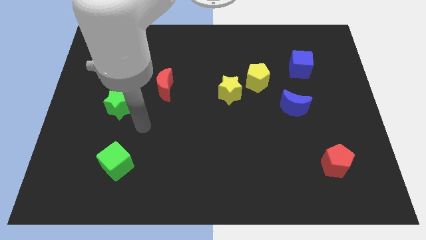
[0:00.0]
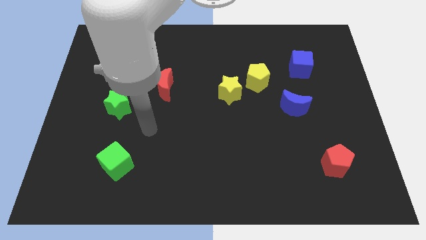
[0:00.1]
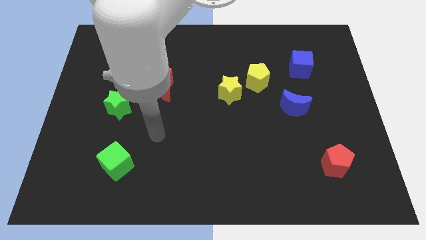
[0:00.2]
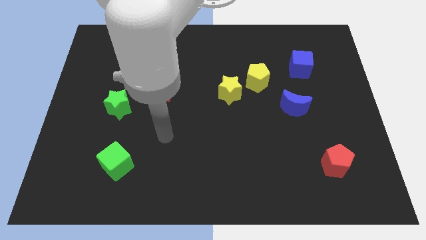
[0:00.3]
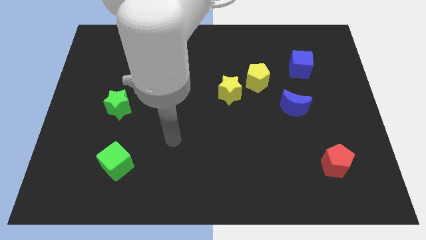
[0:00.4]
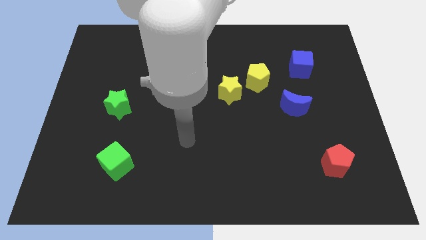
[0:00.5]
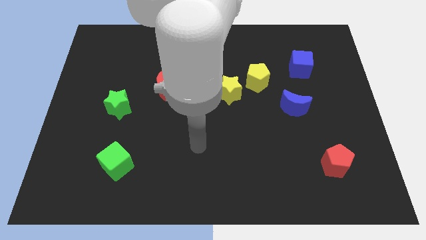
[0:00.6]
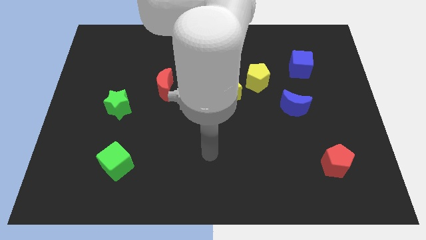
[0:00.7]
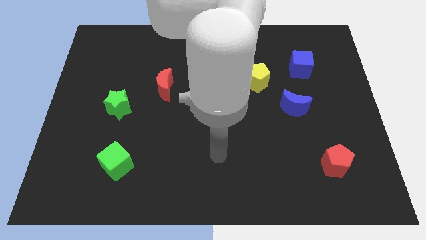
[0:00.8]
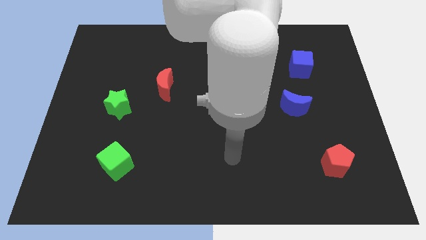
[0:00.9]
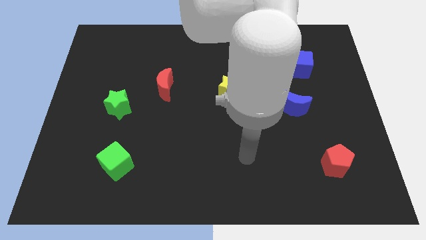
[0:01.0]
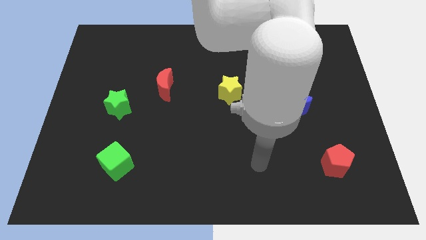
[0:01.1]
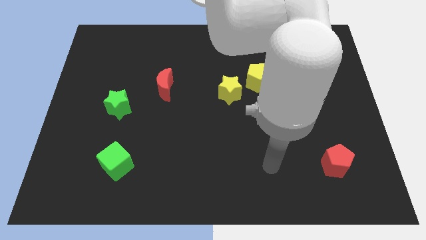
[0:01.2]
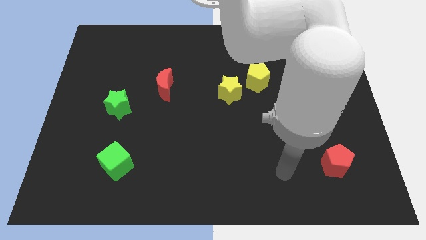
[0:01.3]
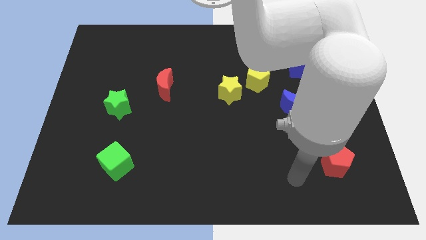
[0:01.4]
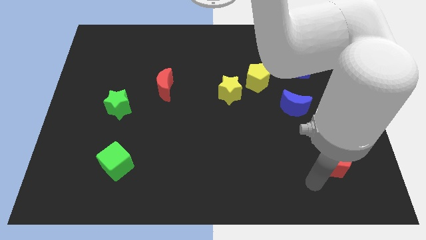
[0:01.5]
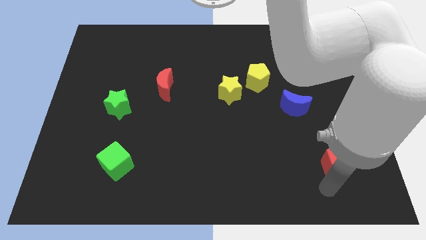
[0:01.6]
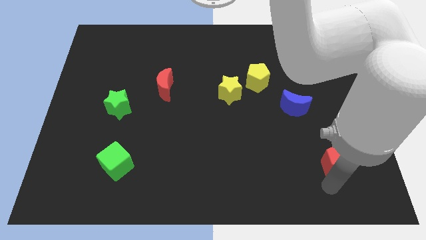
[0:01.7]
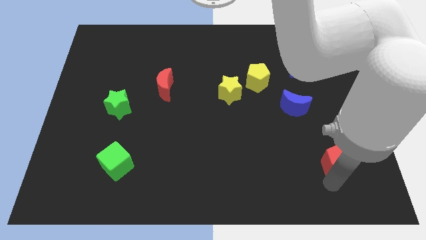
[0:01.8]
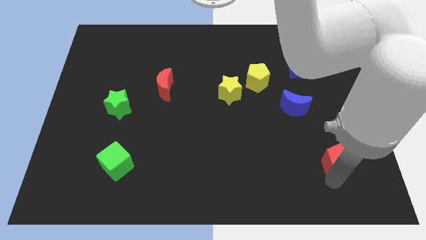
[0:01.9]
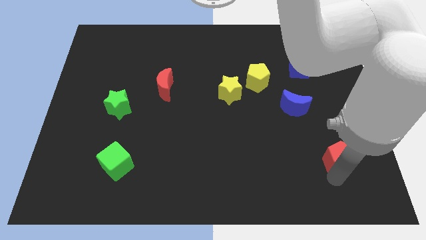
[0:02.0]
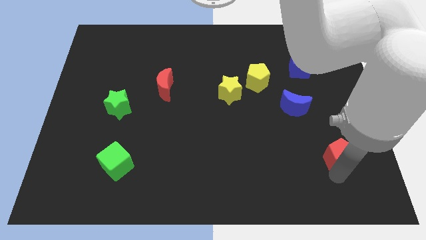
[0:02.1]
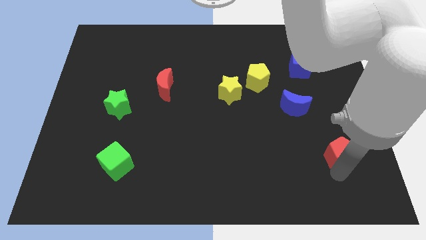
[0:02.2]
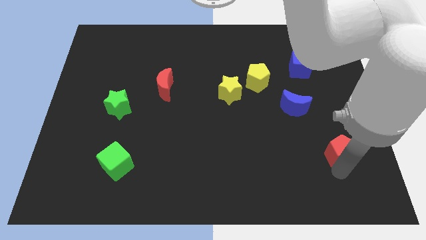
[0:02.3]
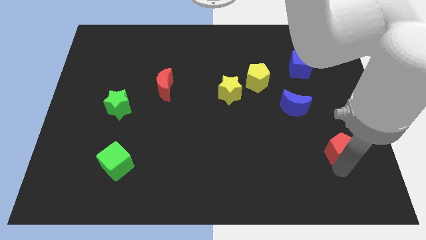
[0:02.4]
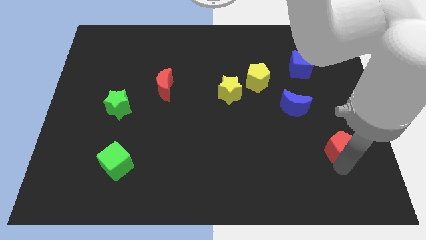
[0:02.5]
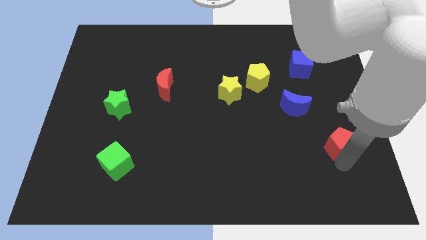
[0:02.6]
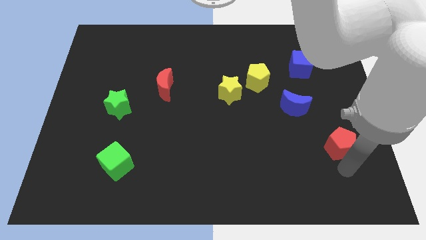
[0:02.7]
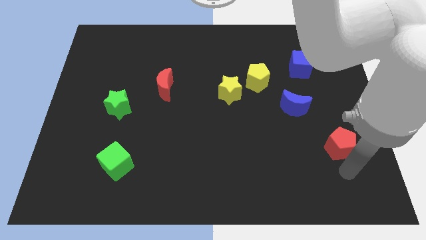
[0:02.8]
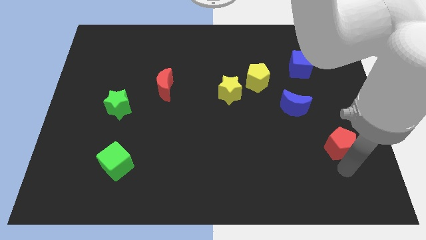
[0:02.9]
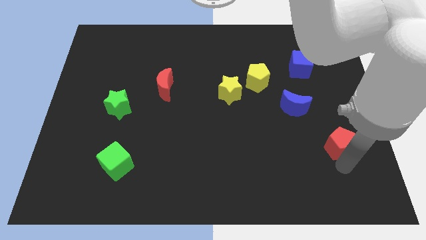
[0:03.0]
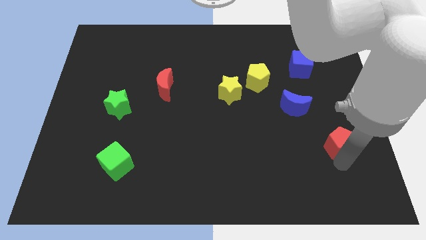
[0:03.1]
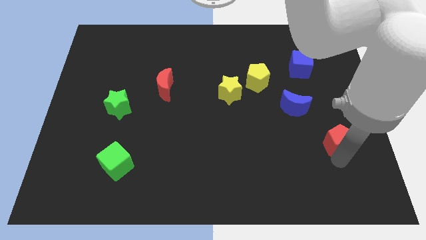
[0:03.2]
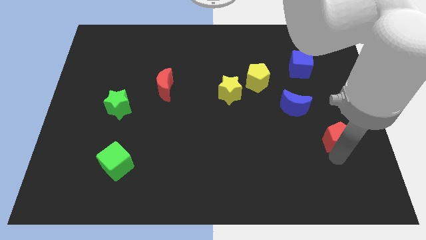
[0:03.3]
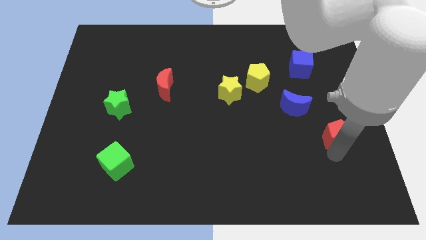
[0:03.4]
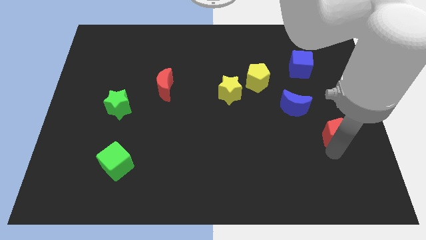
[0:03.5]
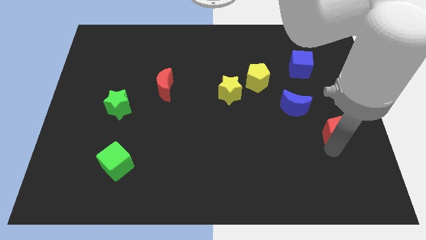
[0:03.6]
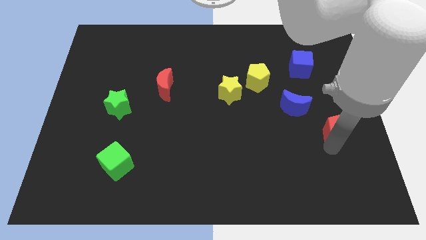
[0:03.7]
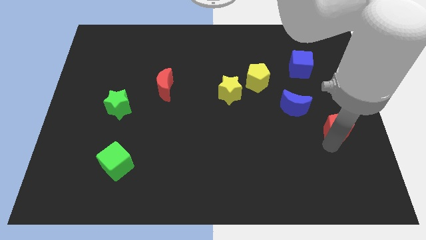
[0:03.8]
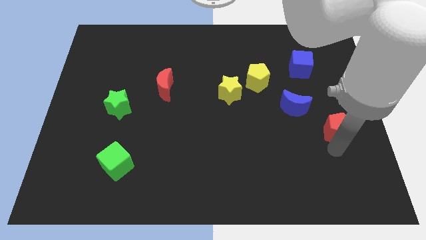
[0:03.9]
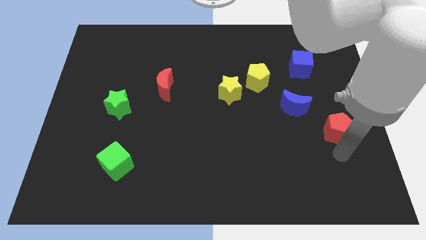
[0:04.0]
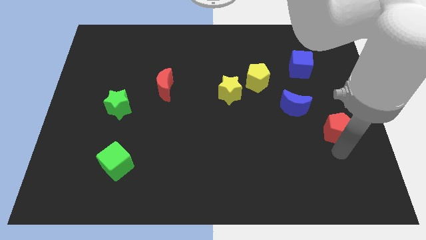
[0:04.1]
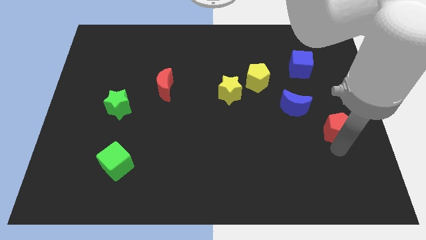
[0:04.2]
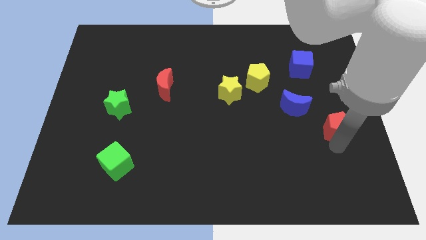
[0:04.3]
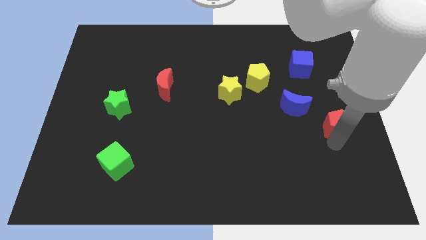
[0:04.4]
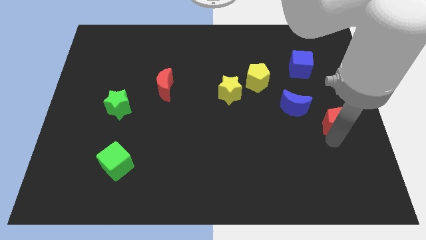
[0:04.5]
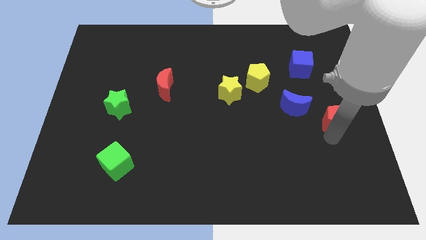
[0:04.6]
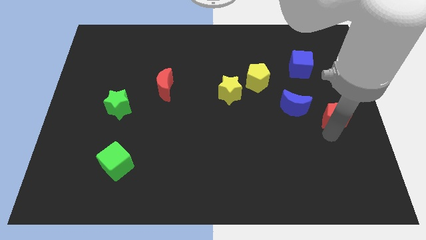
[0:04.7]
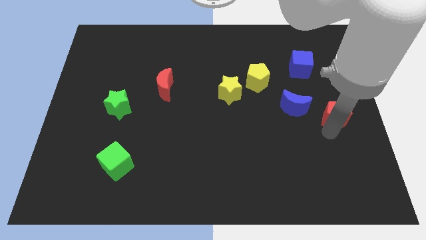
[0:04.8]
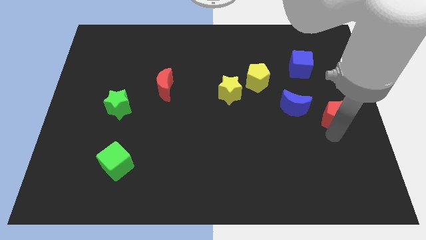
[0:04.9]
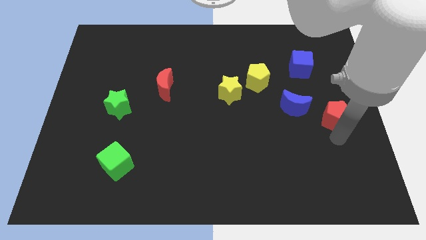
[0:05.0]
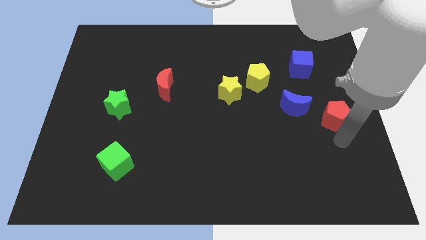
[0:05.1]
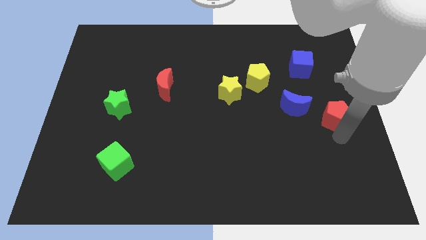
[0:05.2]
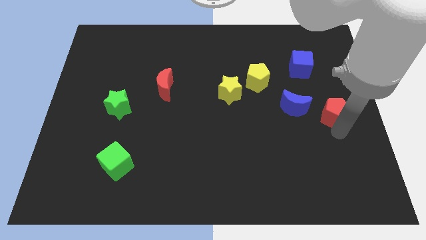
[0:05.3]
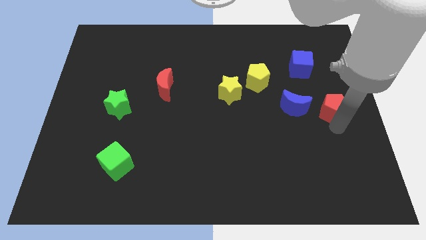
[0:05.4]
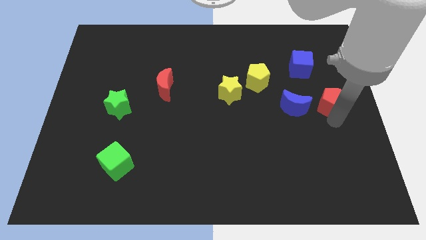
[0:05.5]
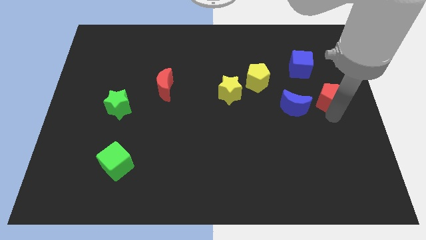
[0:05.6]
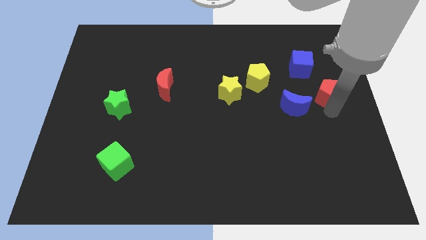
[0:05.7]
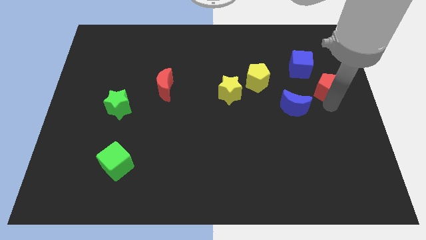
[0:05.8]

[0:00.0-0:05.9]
push the red pentagon up

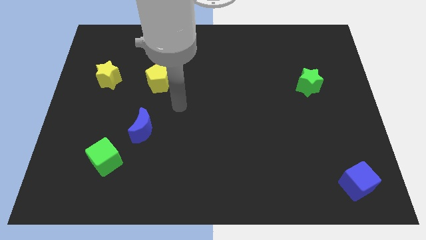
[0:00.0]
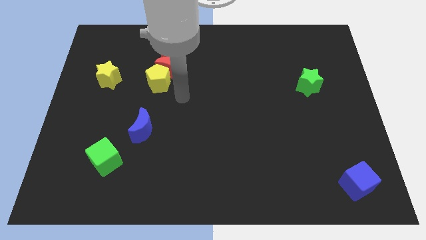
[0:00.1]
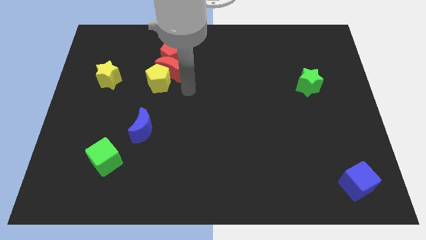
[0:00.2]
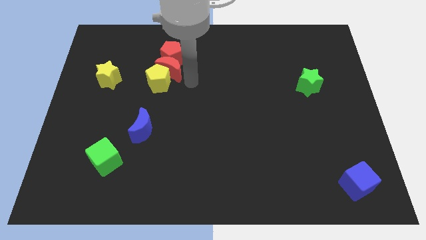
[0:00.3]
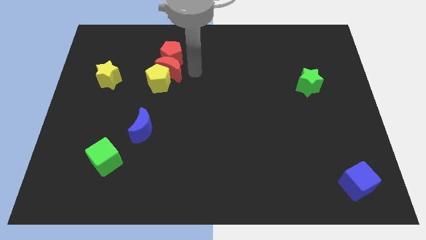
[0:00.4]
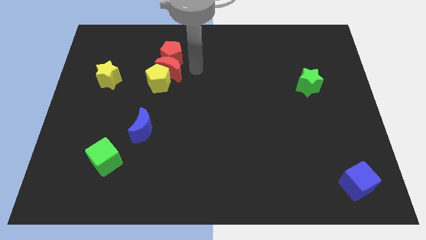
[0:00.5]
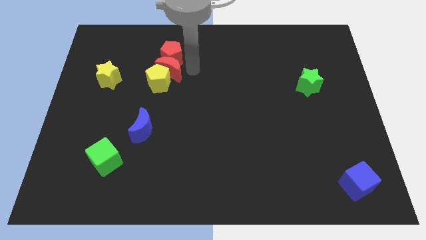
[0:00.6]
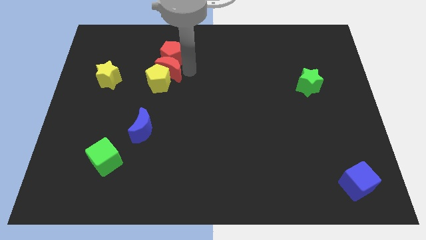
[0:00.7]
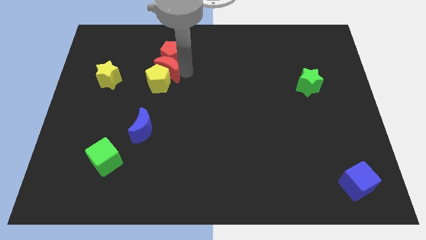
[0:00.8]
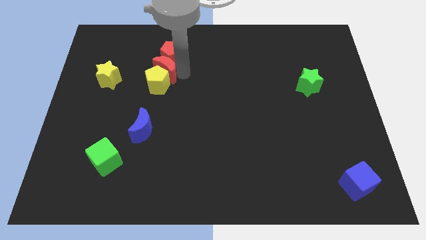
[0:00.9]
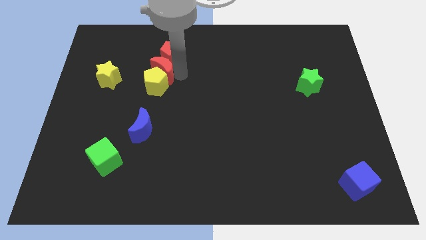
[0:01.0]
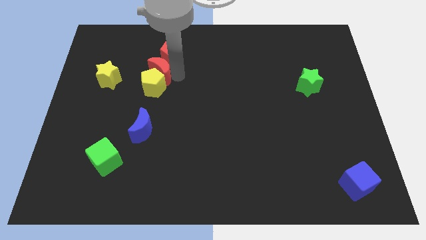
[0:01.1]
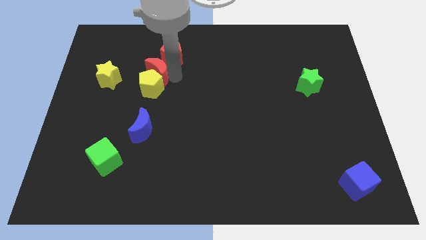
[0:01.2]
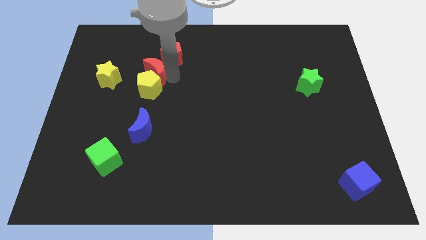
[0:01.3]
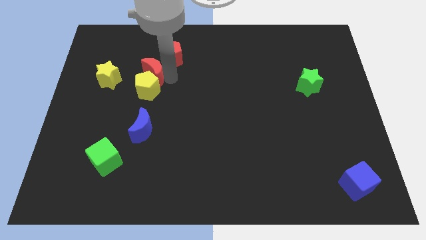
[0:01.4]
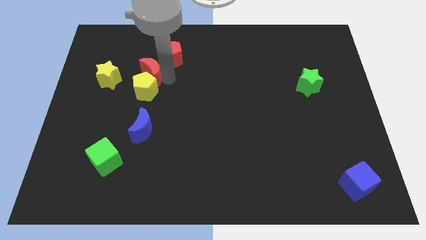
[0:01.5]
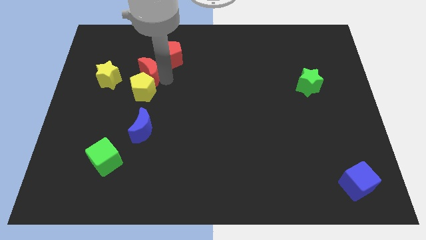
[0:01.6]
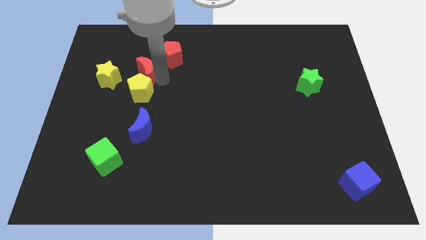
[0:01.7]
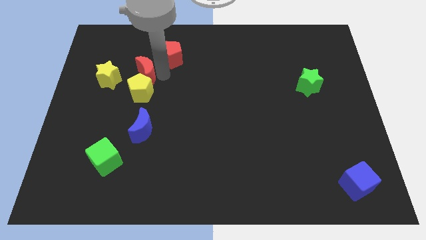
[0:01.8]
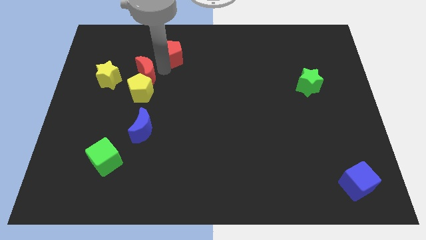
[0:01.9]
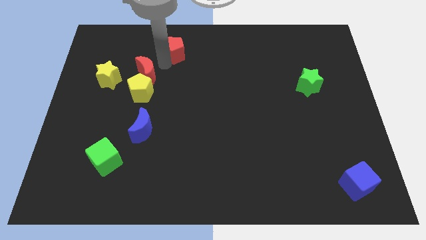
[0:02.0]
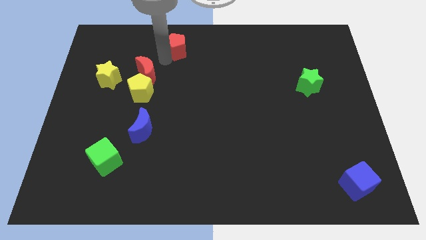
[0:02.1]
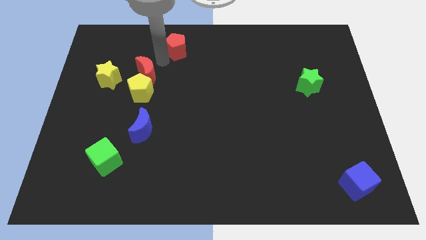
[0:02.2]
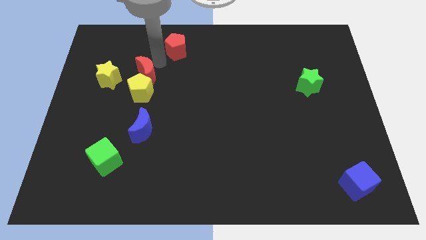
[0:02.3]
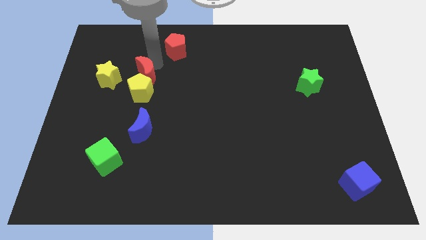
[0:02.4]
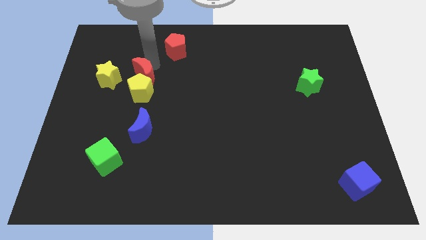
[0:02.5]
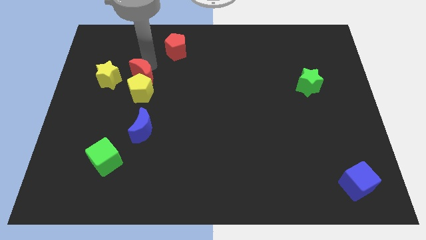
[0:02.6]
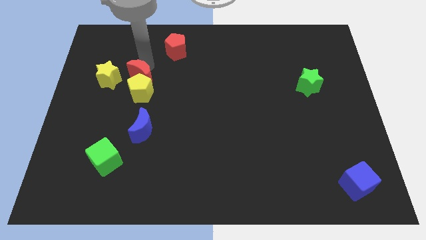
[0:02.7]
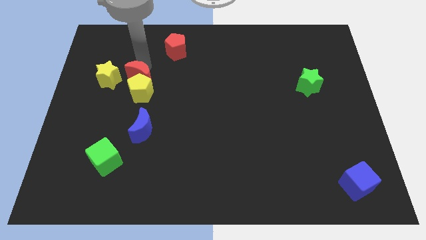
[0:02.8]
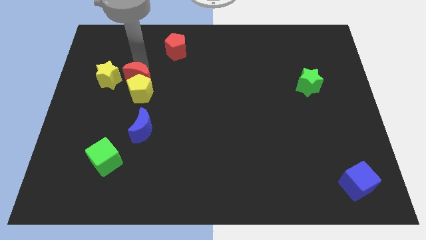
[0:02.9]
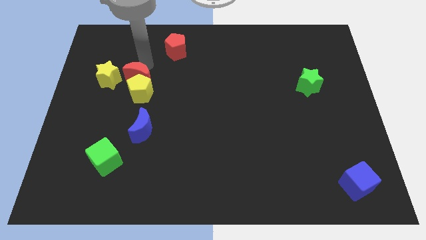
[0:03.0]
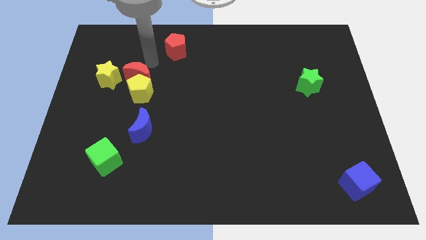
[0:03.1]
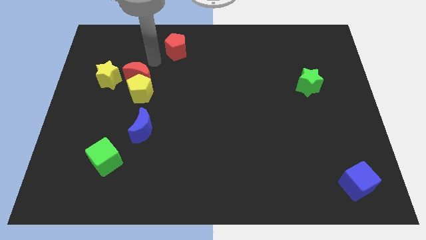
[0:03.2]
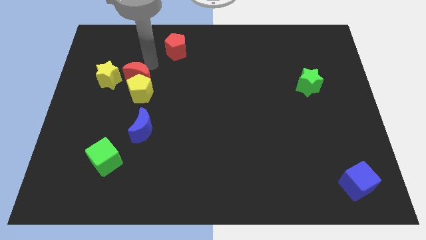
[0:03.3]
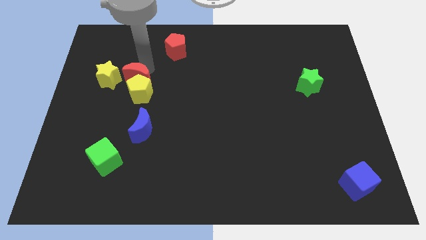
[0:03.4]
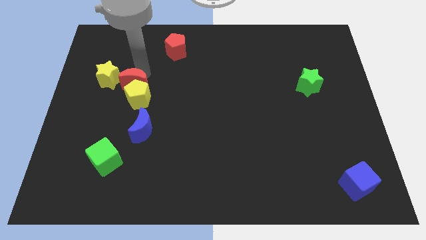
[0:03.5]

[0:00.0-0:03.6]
slide the red moon a little bit down and to the left diagonally
